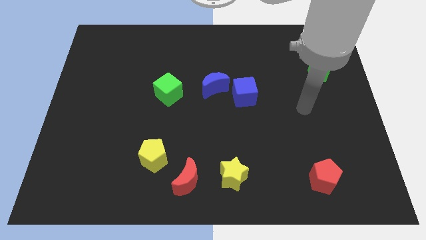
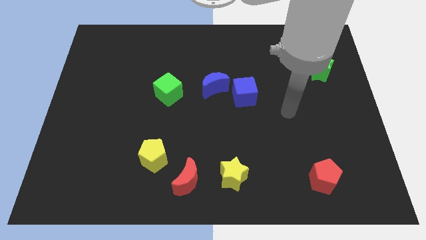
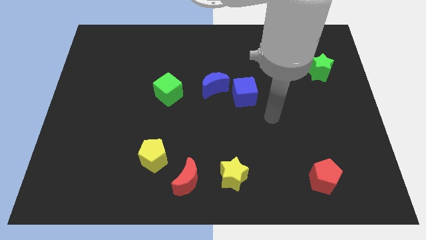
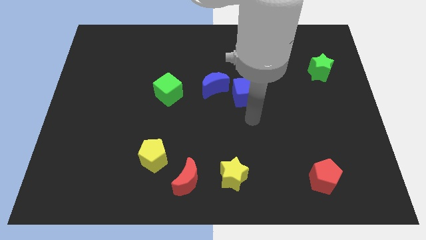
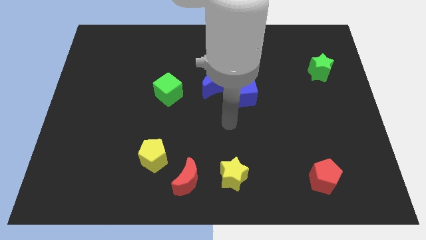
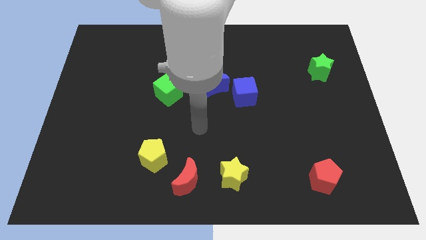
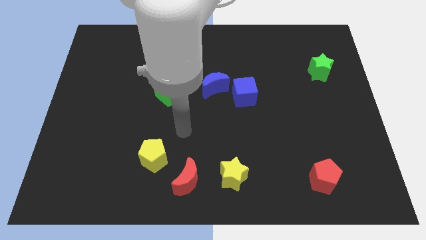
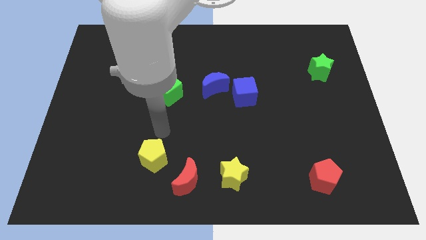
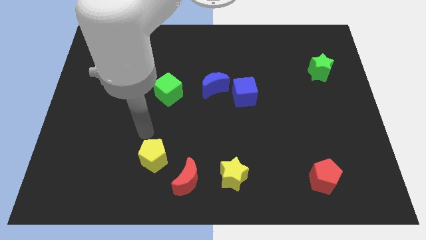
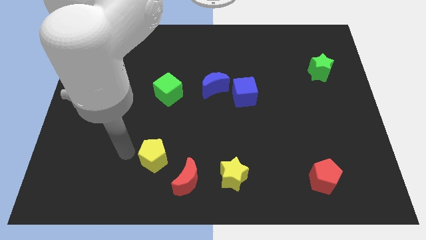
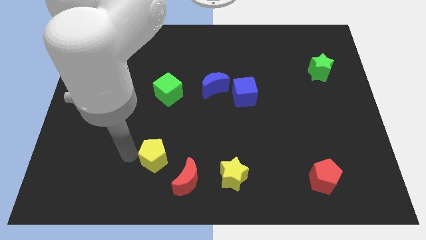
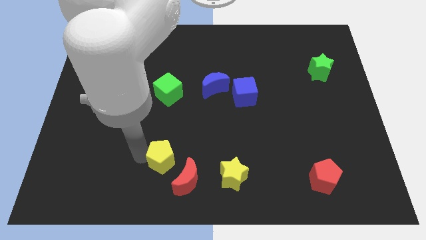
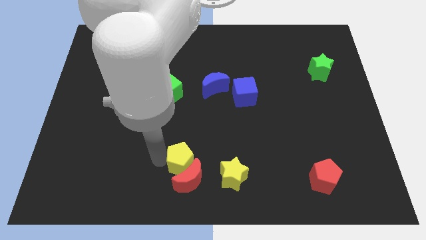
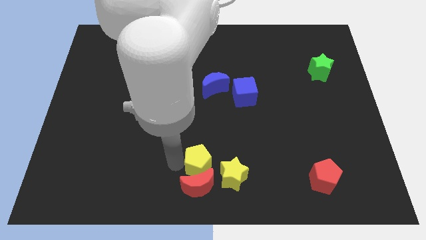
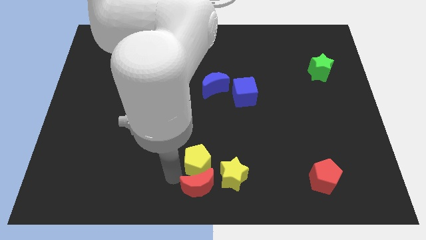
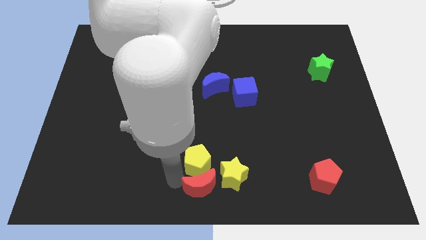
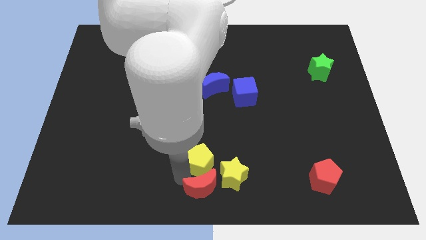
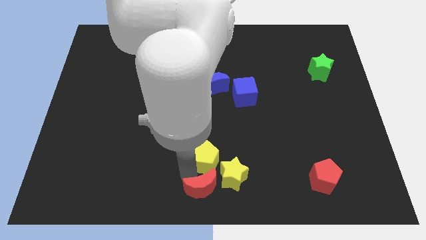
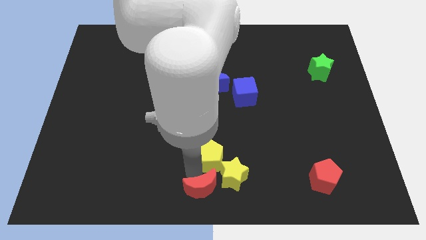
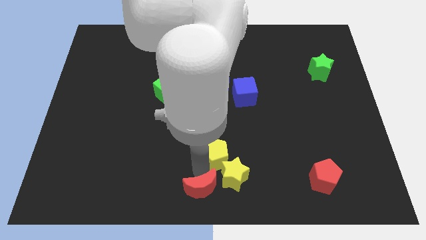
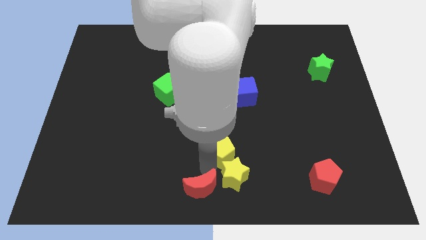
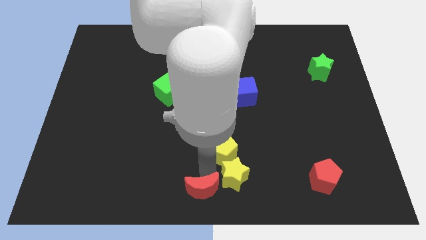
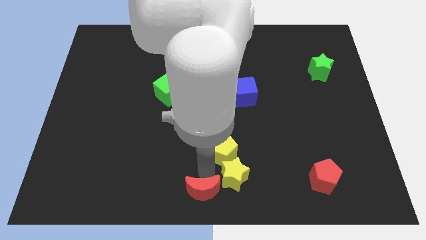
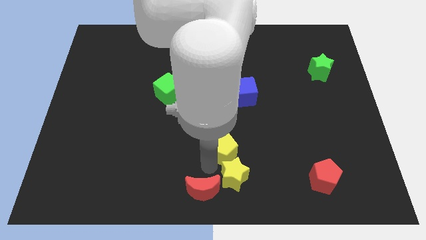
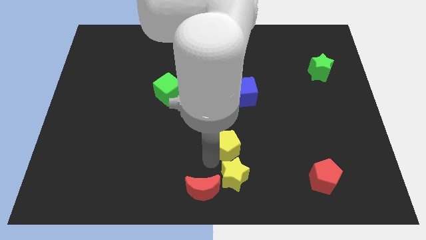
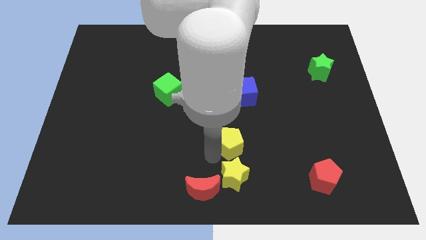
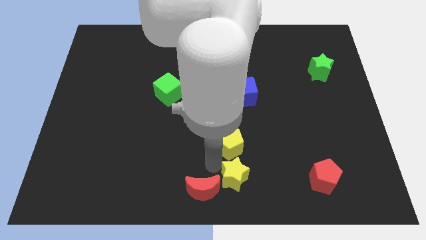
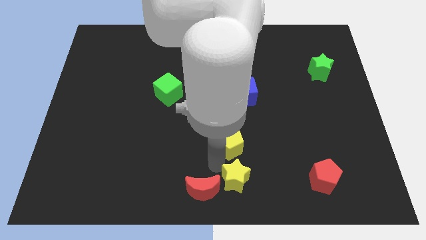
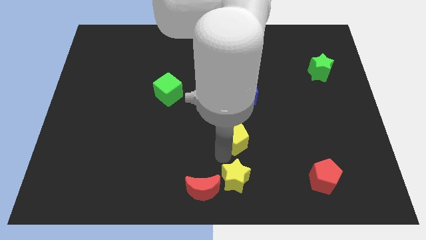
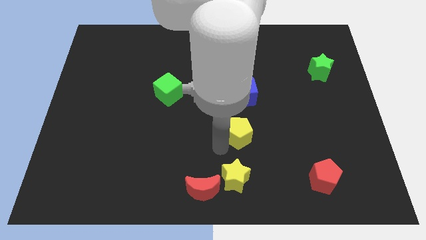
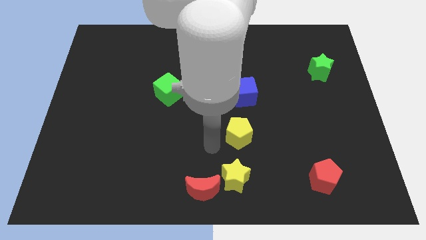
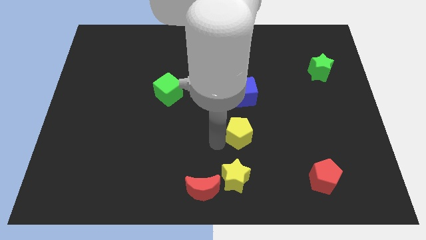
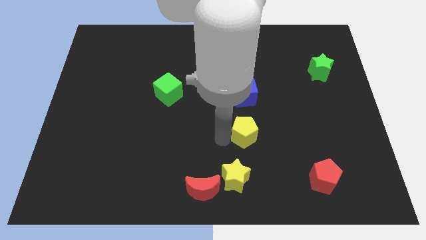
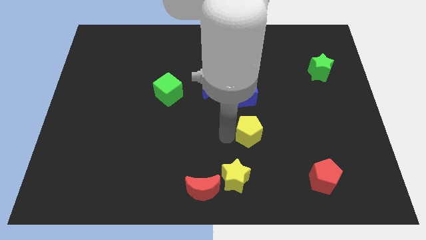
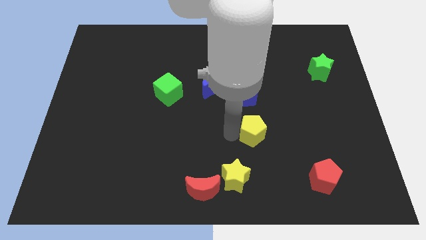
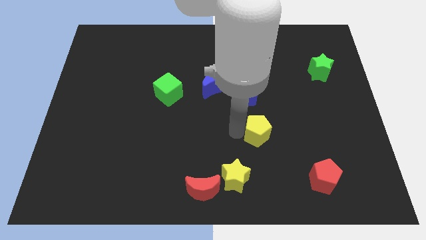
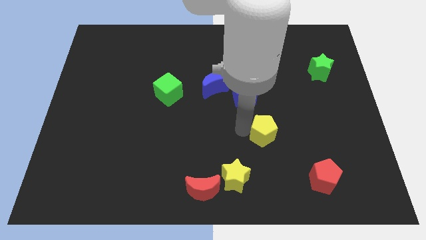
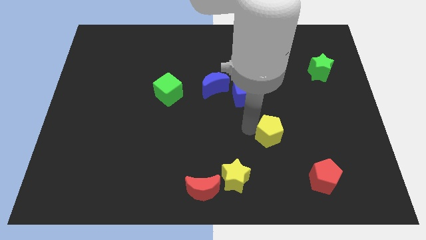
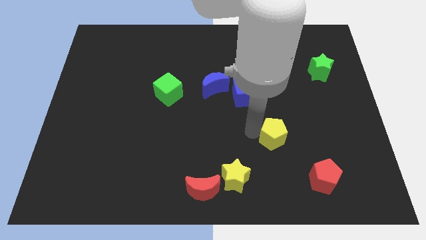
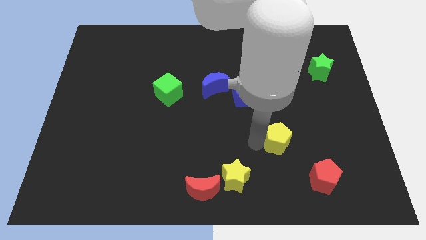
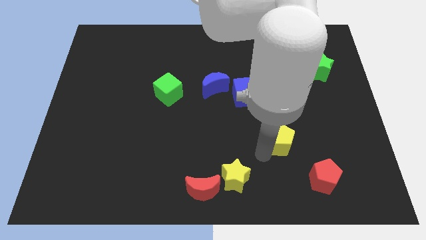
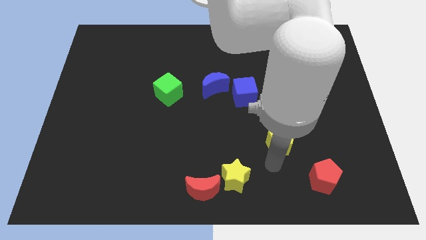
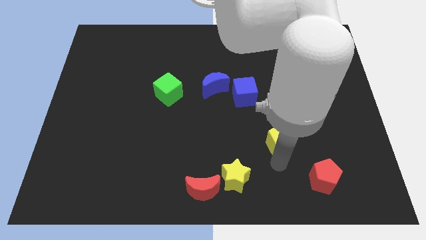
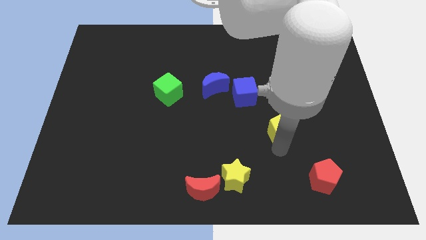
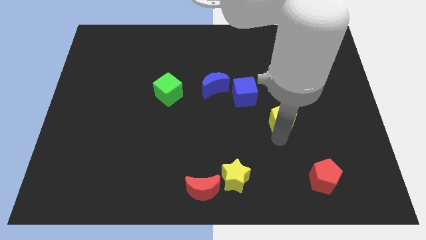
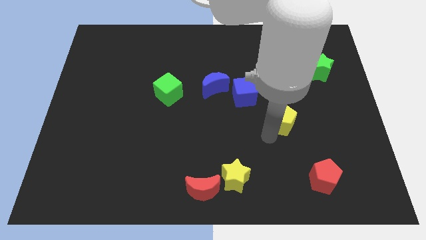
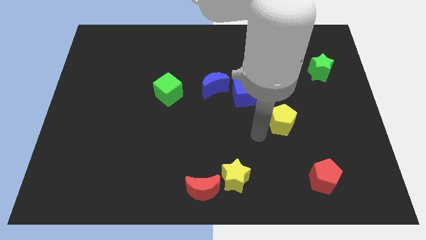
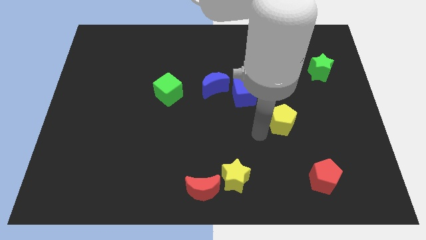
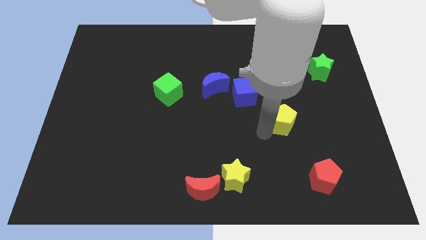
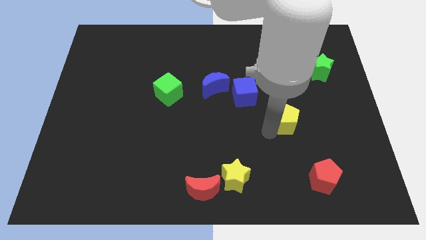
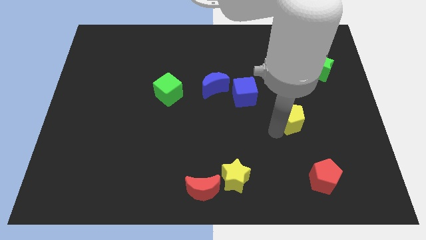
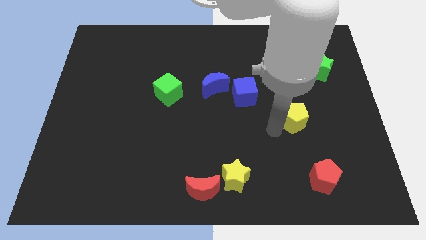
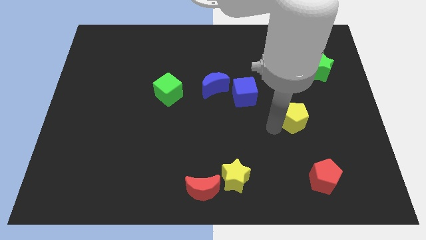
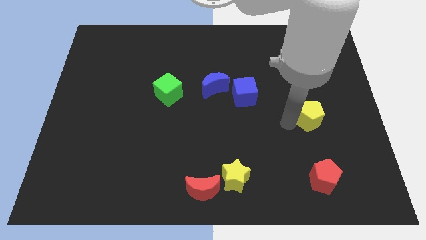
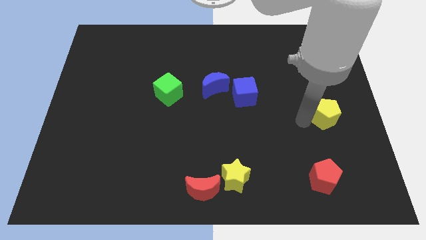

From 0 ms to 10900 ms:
put the yellow pentagon to the right side of the board
